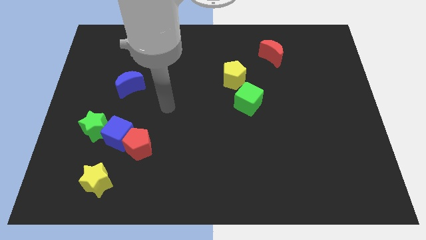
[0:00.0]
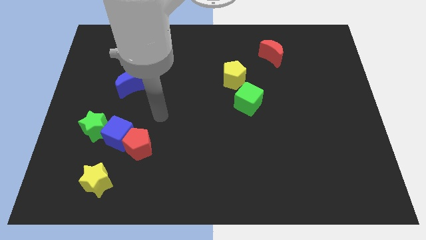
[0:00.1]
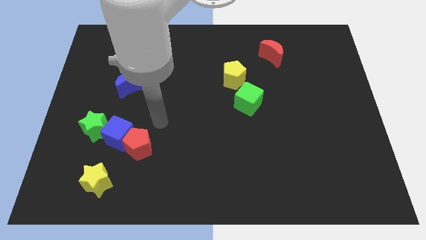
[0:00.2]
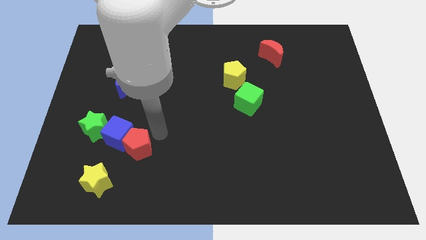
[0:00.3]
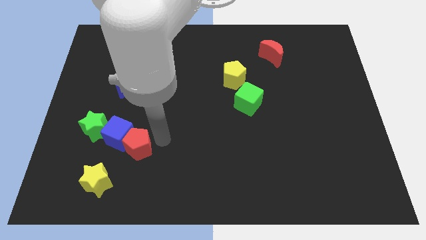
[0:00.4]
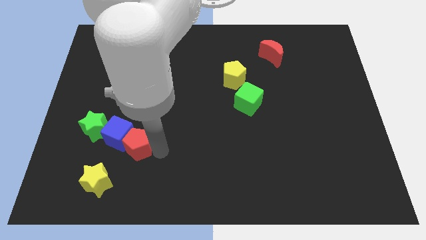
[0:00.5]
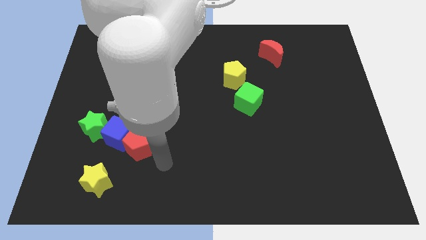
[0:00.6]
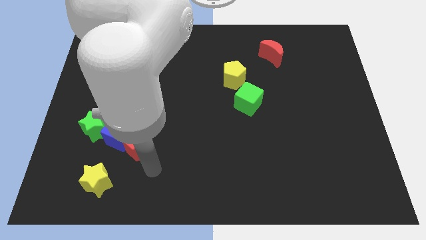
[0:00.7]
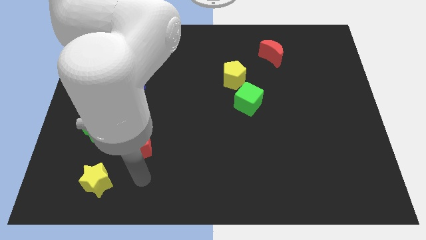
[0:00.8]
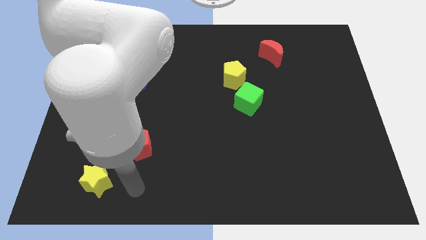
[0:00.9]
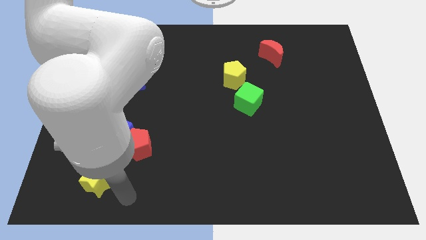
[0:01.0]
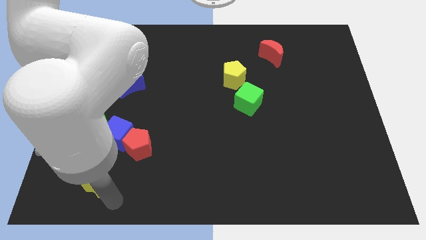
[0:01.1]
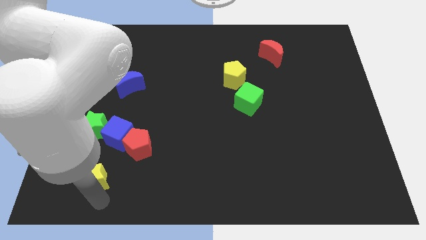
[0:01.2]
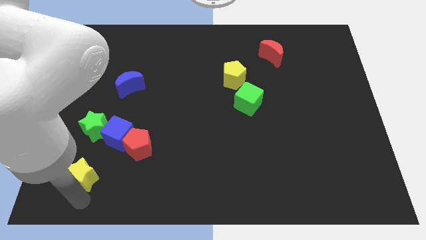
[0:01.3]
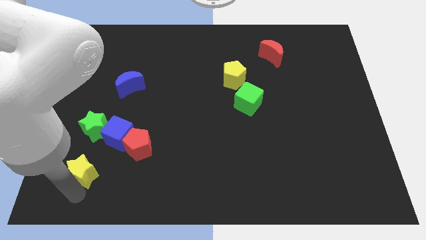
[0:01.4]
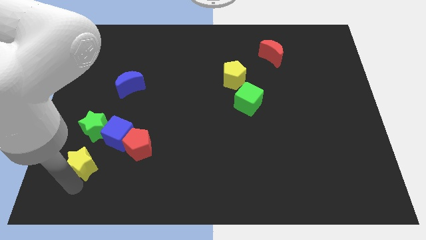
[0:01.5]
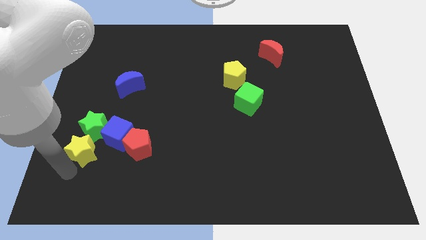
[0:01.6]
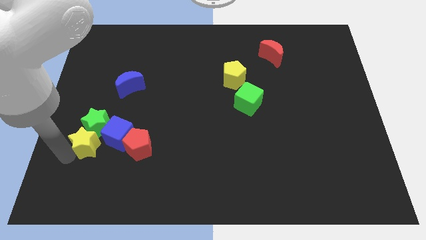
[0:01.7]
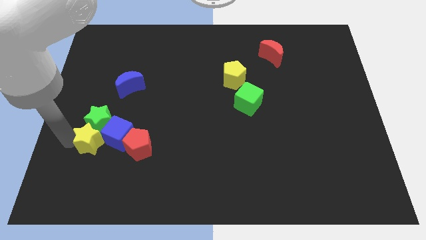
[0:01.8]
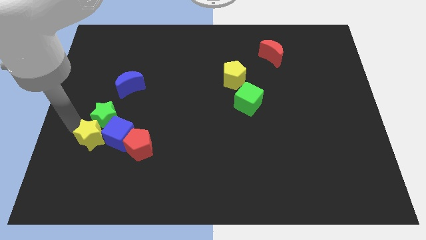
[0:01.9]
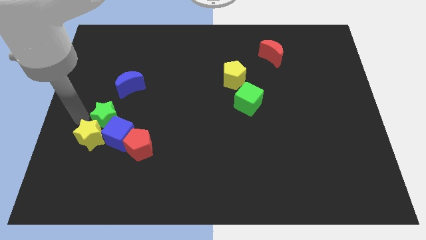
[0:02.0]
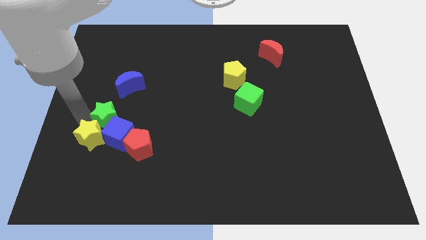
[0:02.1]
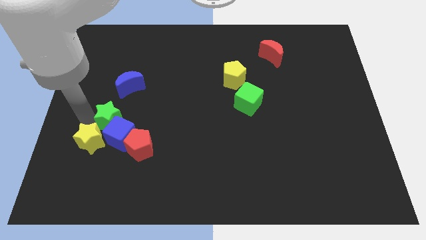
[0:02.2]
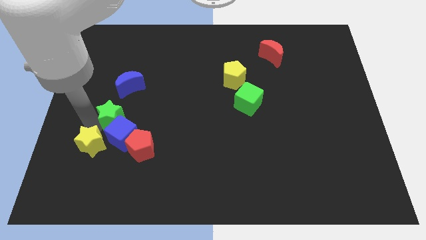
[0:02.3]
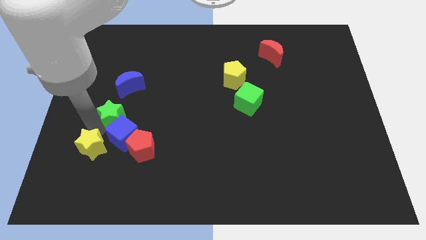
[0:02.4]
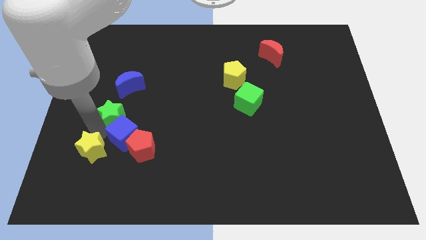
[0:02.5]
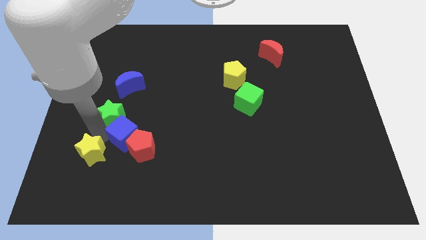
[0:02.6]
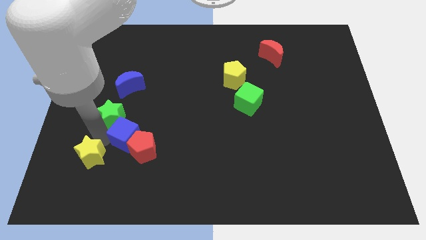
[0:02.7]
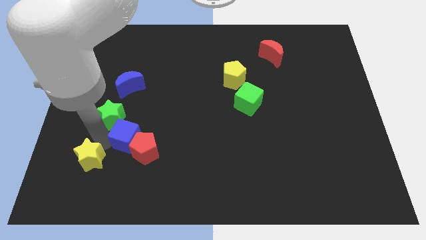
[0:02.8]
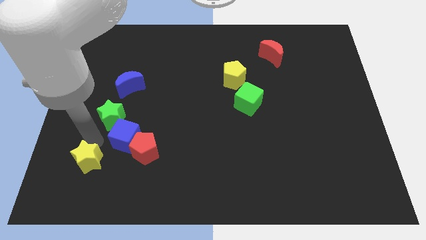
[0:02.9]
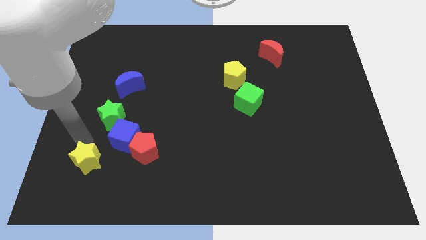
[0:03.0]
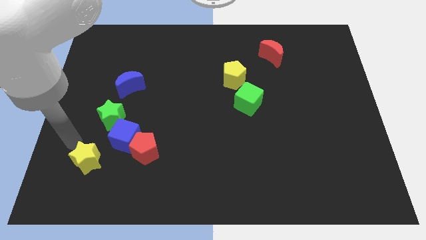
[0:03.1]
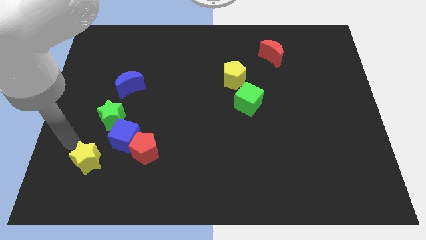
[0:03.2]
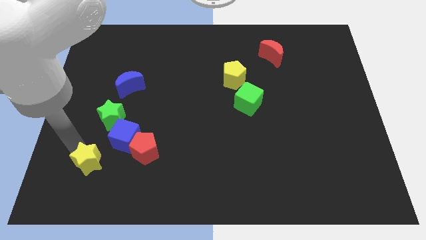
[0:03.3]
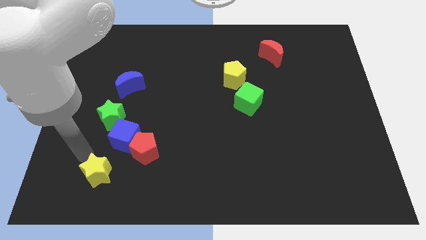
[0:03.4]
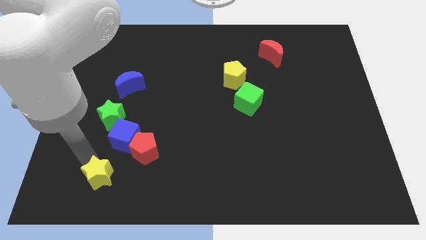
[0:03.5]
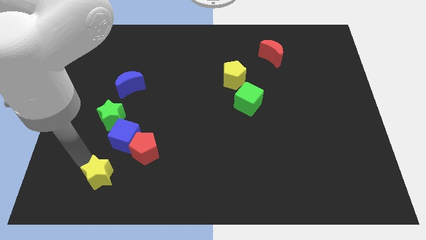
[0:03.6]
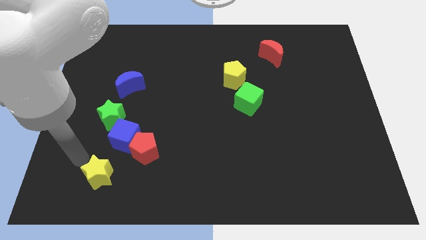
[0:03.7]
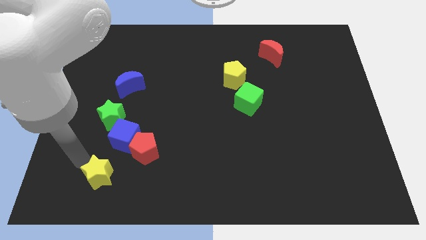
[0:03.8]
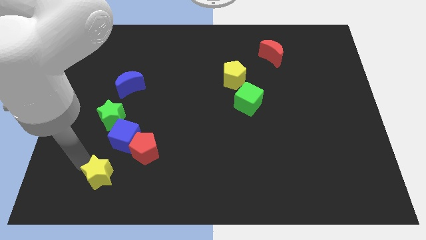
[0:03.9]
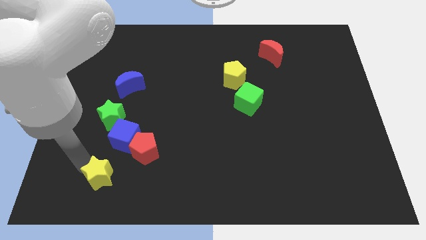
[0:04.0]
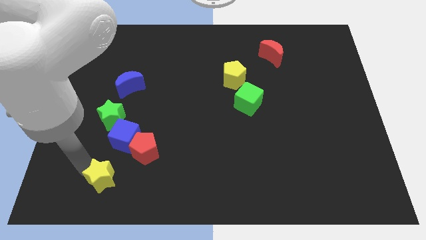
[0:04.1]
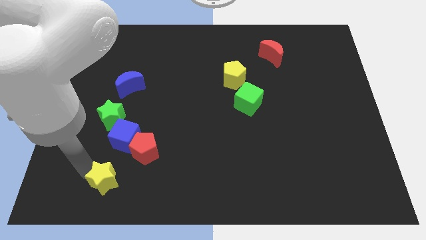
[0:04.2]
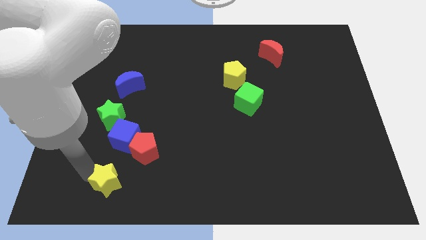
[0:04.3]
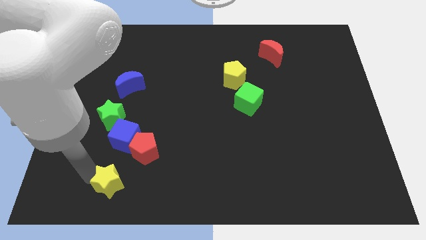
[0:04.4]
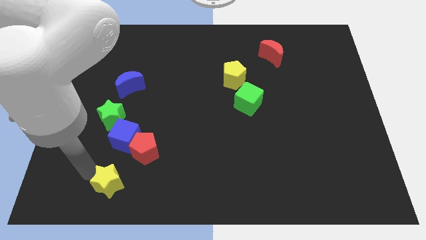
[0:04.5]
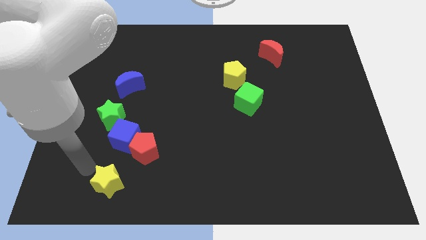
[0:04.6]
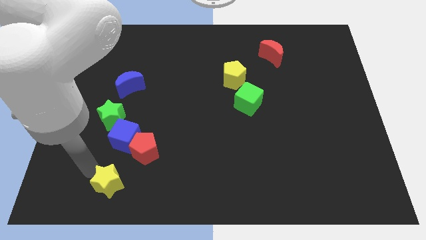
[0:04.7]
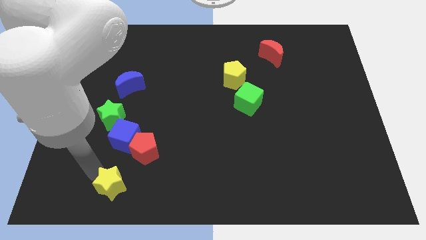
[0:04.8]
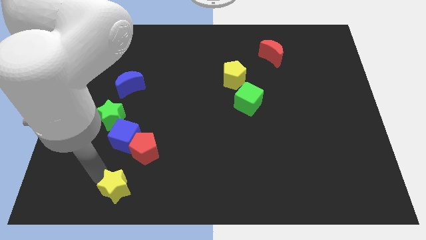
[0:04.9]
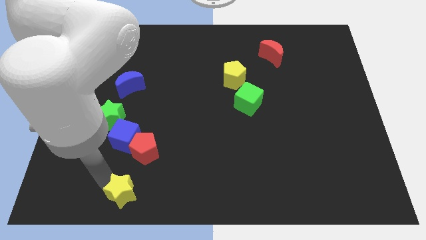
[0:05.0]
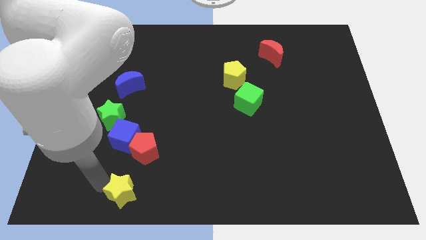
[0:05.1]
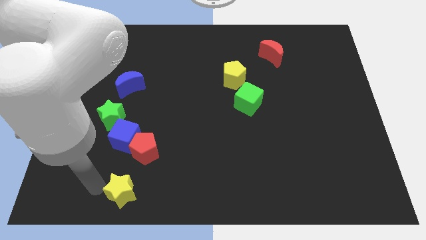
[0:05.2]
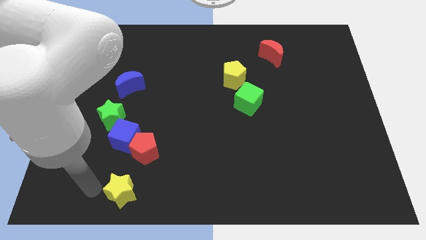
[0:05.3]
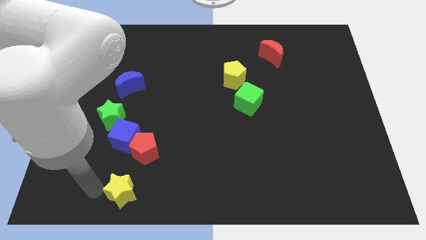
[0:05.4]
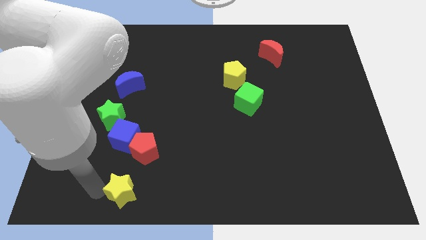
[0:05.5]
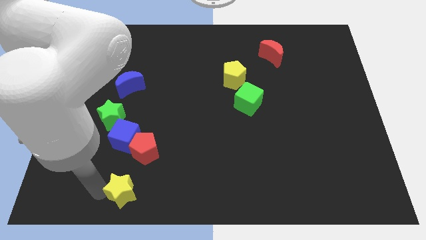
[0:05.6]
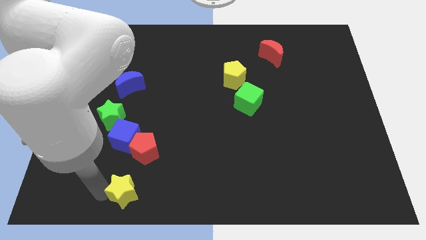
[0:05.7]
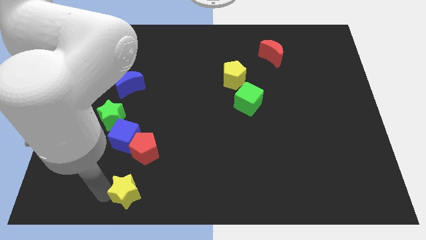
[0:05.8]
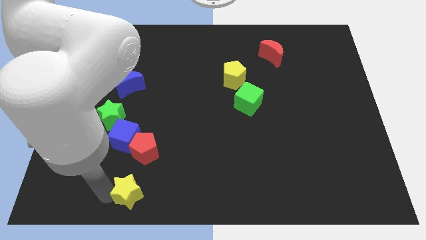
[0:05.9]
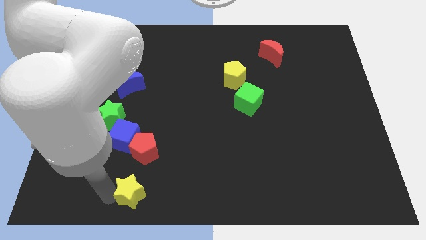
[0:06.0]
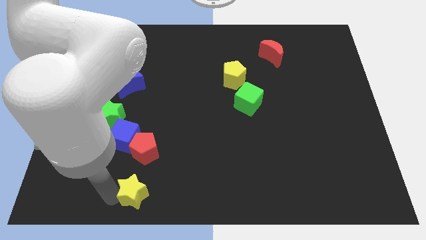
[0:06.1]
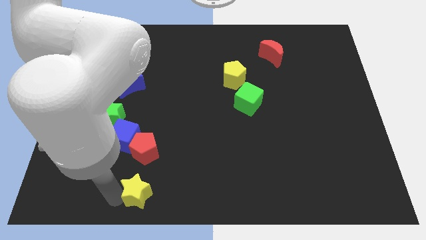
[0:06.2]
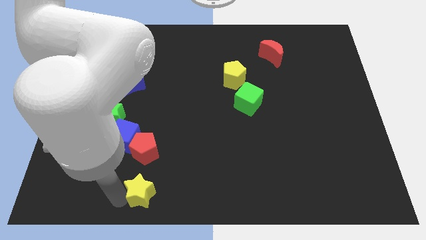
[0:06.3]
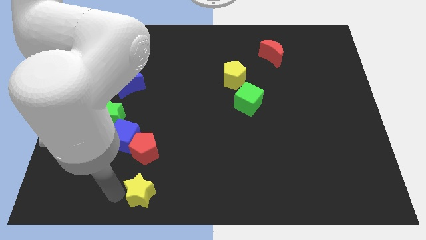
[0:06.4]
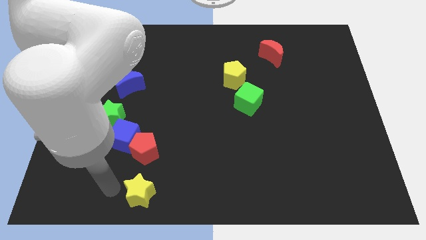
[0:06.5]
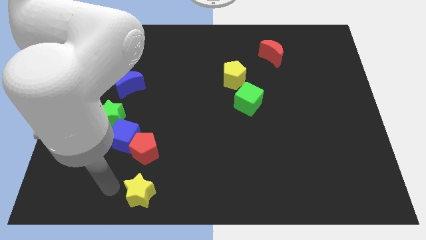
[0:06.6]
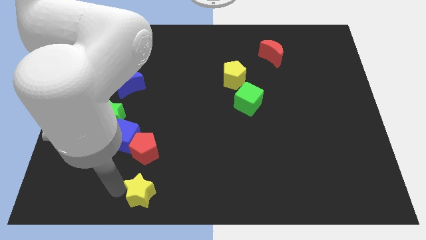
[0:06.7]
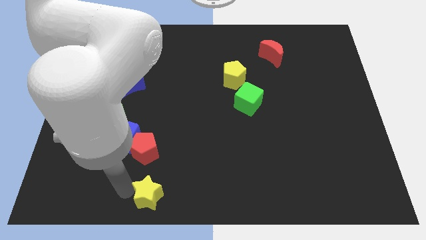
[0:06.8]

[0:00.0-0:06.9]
put the yellow star to the bottom

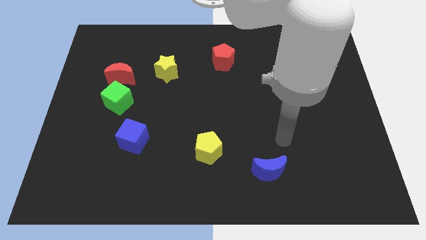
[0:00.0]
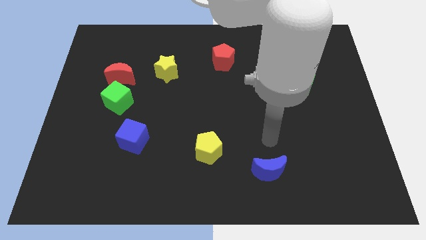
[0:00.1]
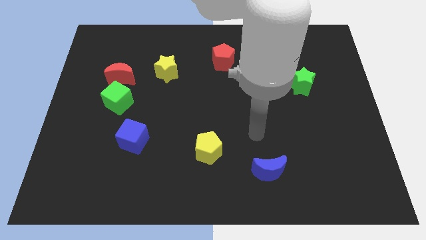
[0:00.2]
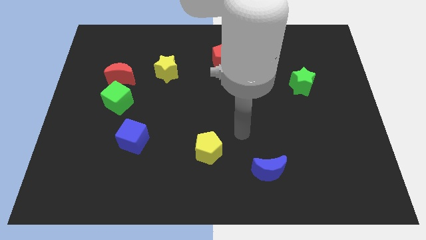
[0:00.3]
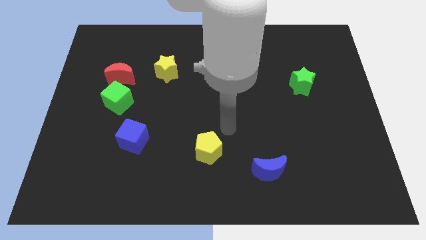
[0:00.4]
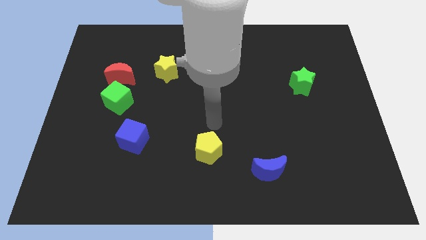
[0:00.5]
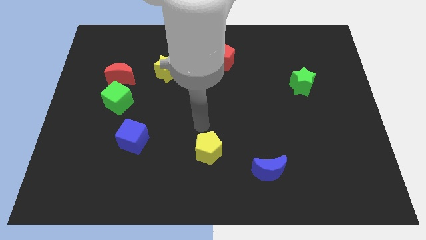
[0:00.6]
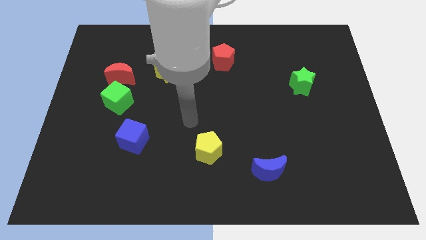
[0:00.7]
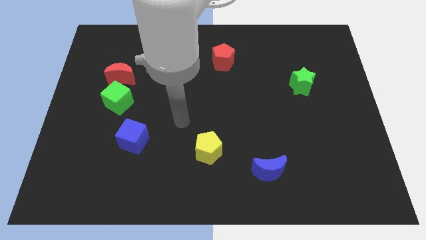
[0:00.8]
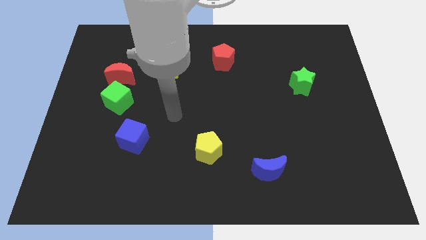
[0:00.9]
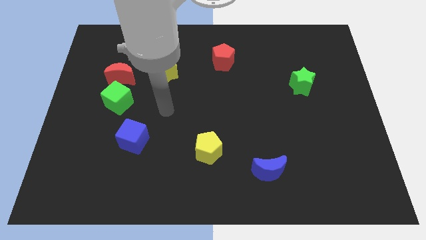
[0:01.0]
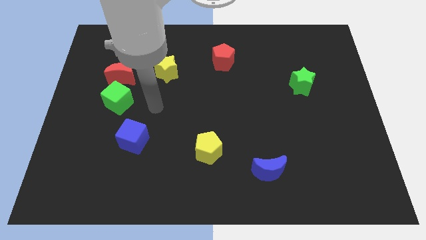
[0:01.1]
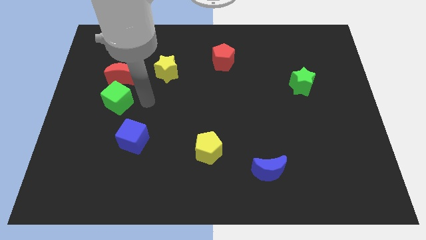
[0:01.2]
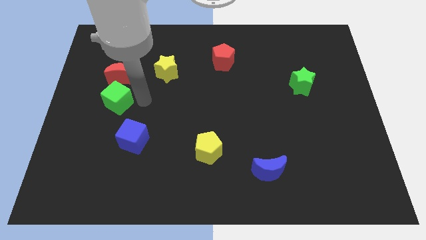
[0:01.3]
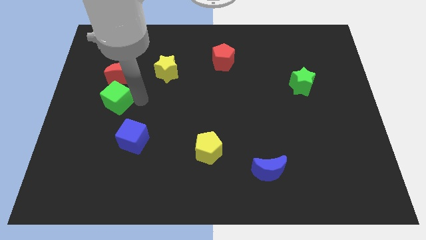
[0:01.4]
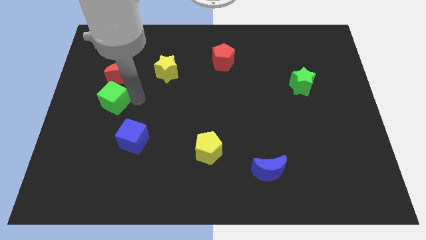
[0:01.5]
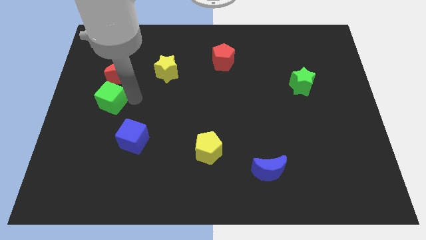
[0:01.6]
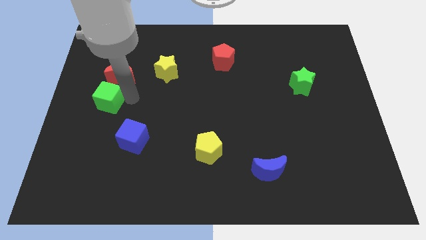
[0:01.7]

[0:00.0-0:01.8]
put the green cube to the center left
